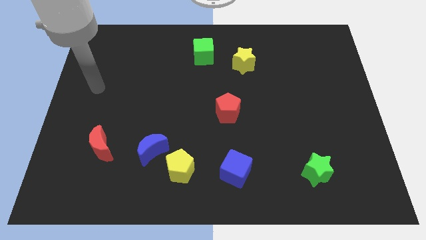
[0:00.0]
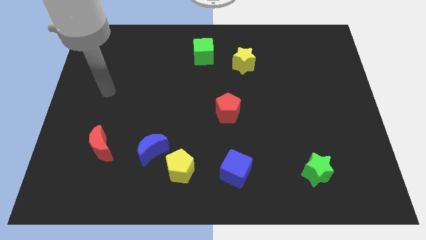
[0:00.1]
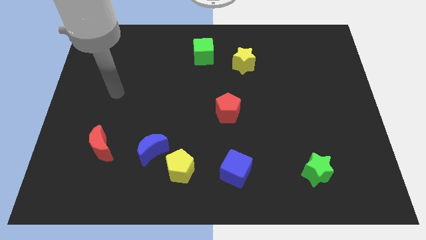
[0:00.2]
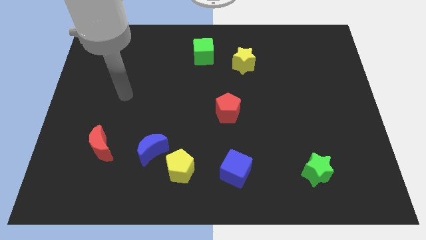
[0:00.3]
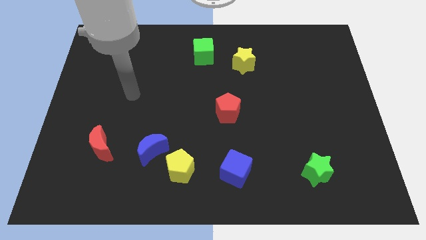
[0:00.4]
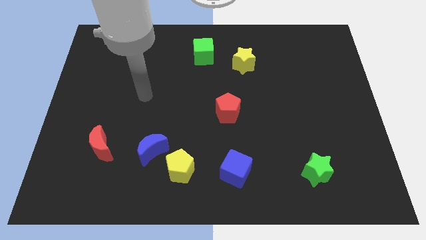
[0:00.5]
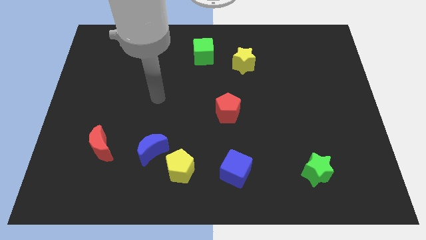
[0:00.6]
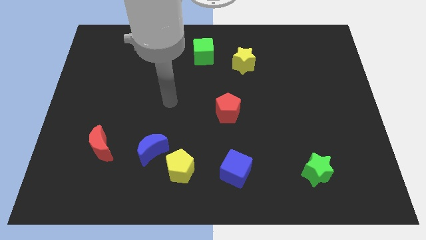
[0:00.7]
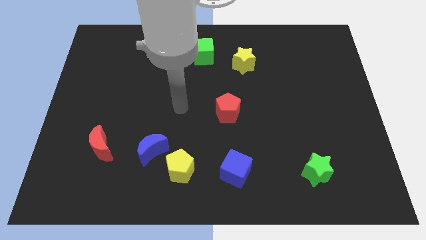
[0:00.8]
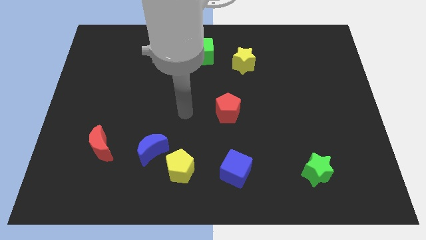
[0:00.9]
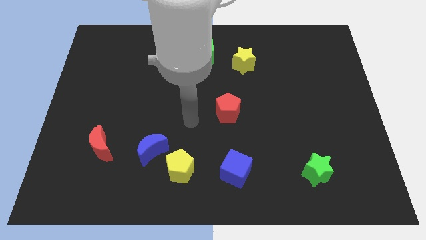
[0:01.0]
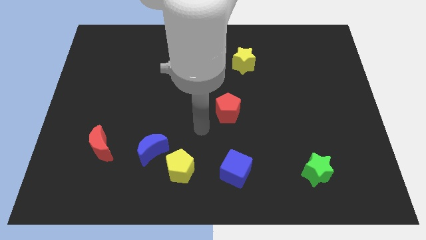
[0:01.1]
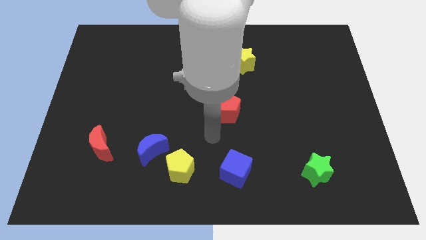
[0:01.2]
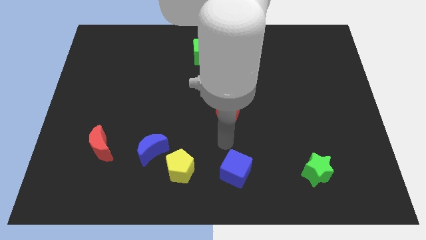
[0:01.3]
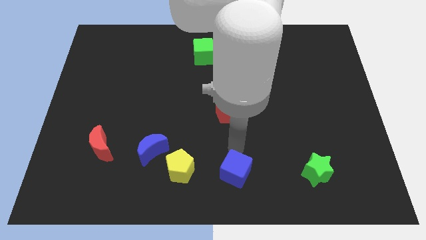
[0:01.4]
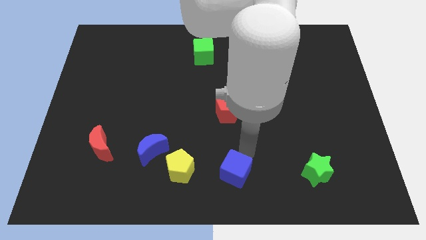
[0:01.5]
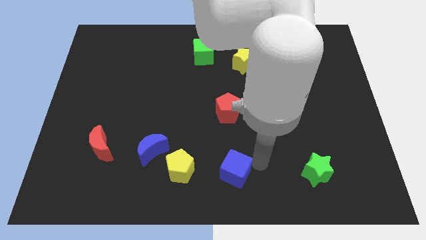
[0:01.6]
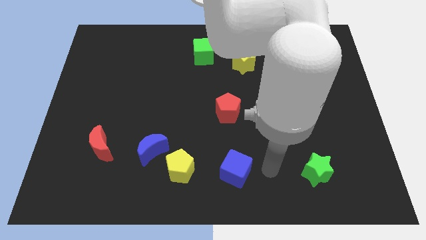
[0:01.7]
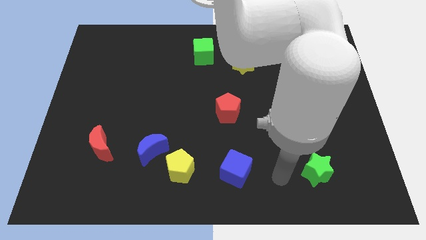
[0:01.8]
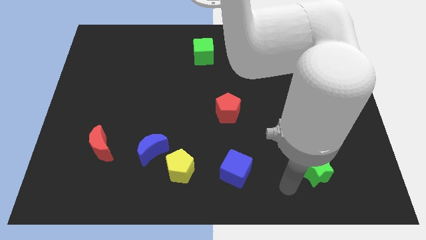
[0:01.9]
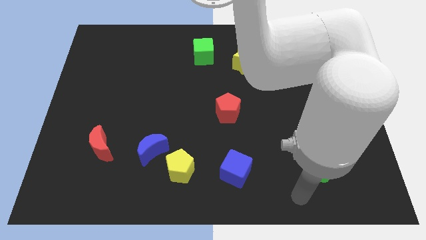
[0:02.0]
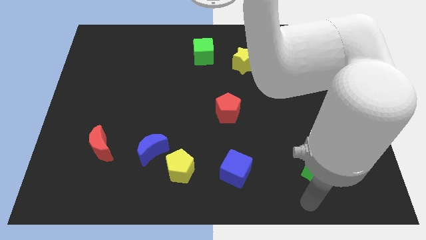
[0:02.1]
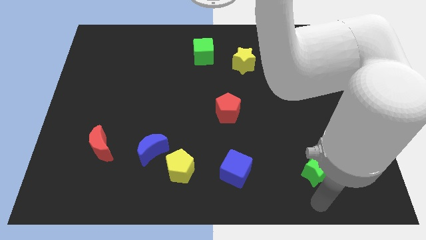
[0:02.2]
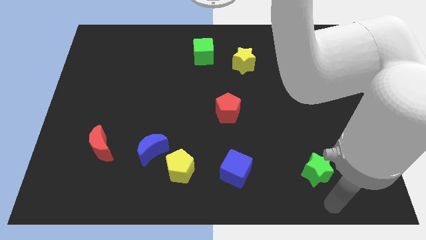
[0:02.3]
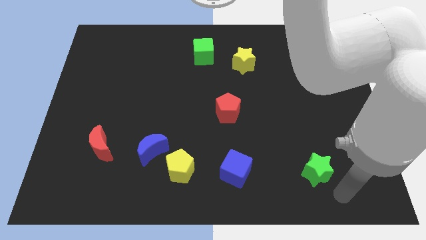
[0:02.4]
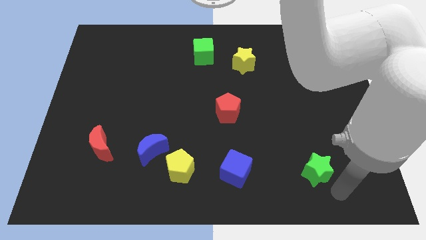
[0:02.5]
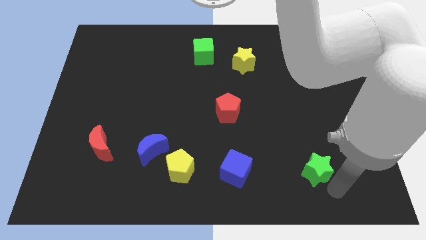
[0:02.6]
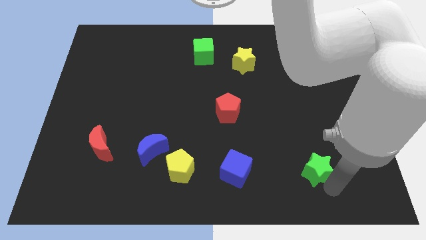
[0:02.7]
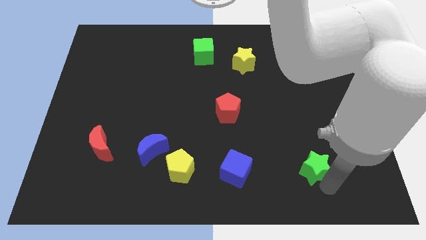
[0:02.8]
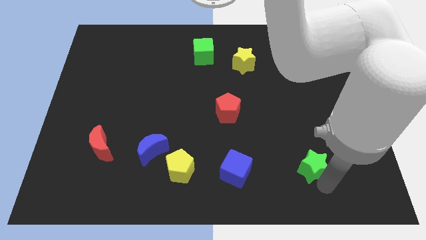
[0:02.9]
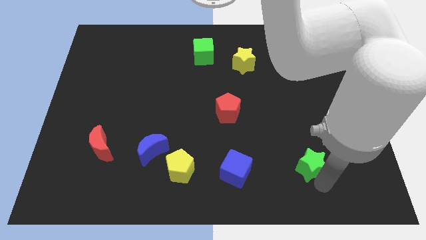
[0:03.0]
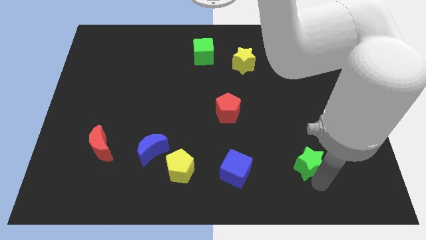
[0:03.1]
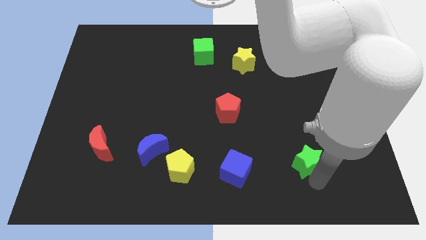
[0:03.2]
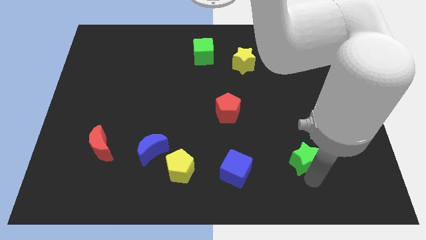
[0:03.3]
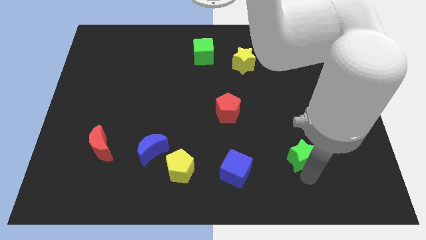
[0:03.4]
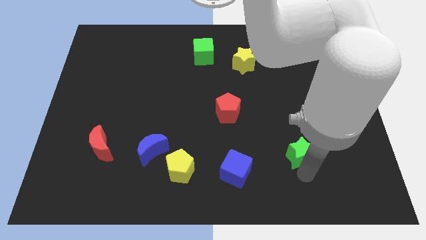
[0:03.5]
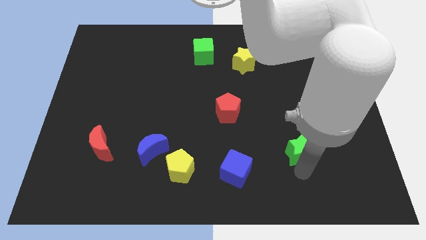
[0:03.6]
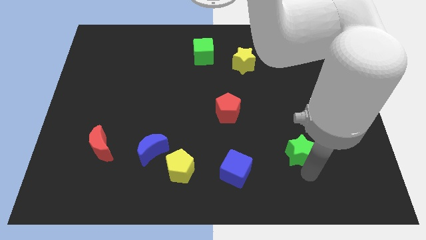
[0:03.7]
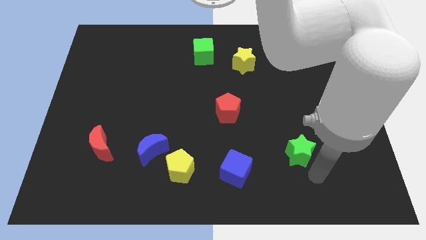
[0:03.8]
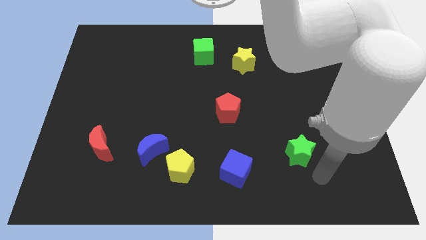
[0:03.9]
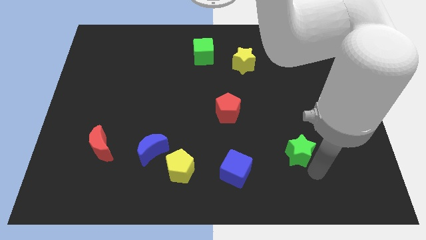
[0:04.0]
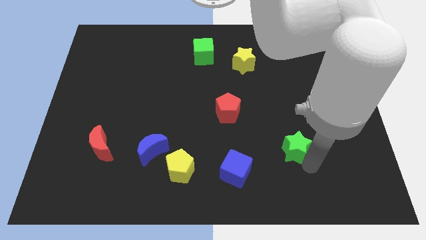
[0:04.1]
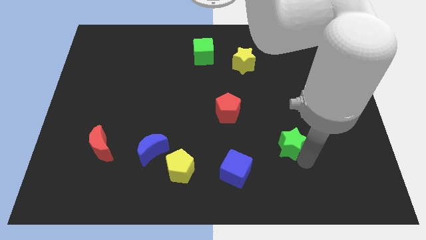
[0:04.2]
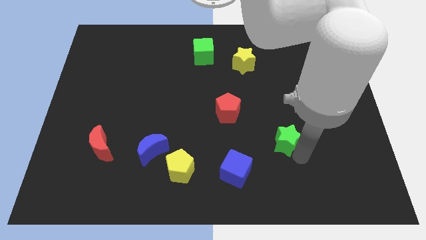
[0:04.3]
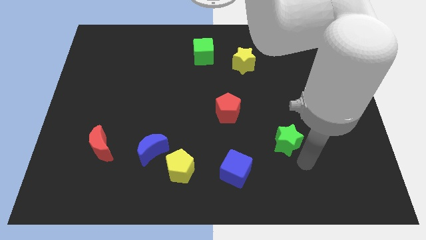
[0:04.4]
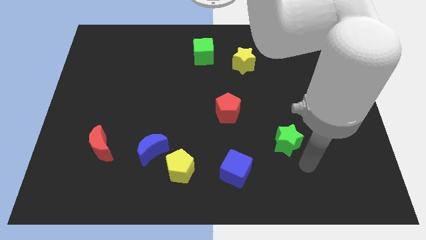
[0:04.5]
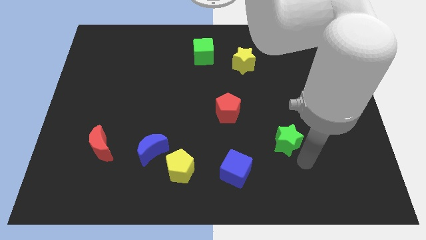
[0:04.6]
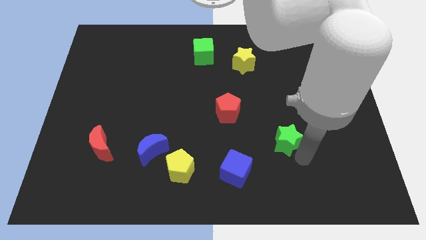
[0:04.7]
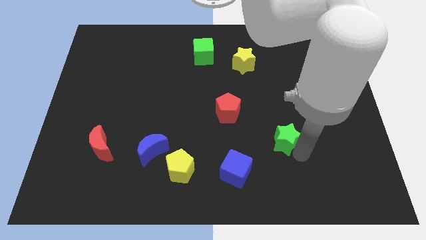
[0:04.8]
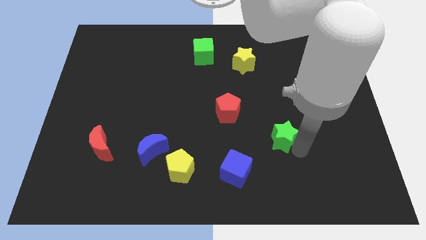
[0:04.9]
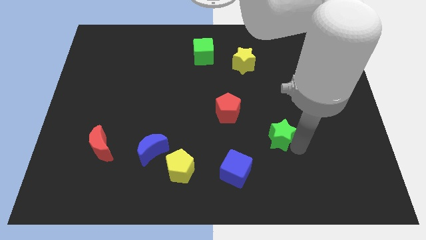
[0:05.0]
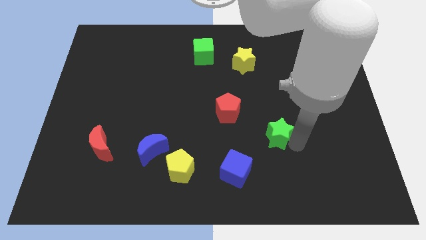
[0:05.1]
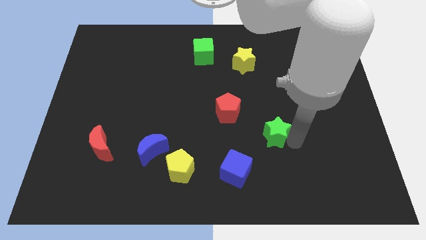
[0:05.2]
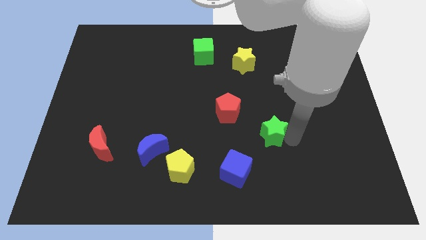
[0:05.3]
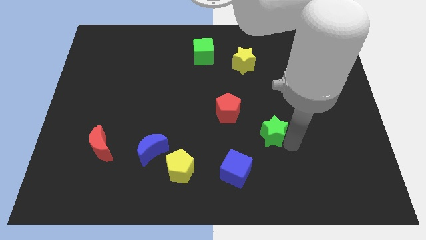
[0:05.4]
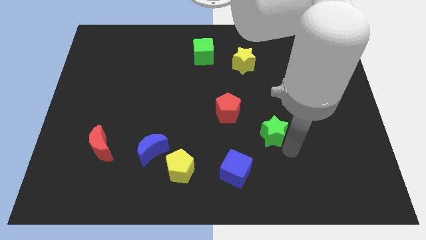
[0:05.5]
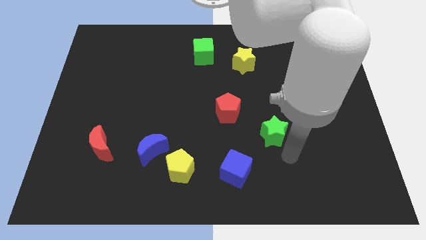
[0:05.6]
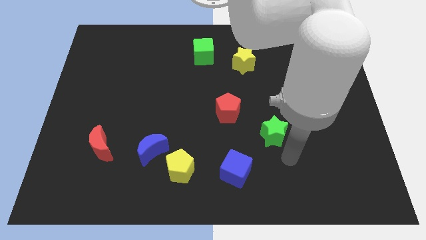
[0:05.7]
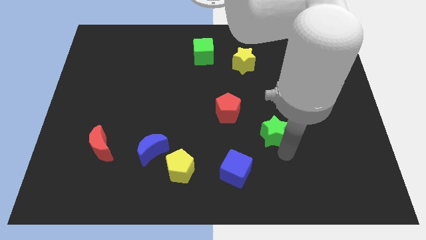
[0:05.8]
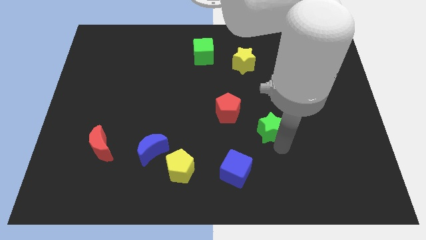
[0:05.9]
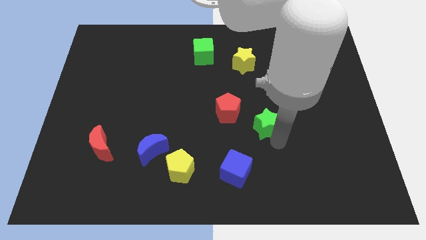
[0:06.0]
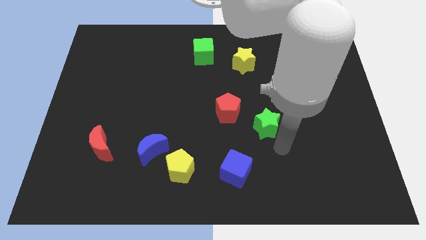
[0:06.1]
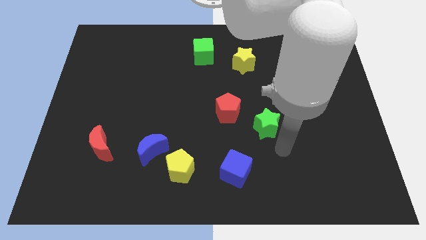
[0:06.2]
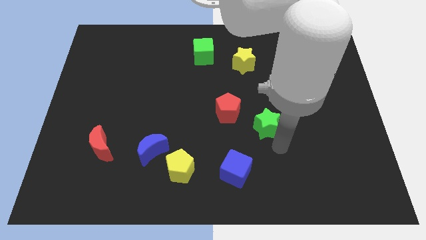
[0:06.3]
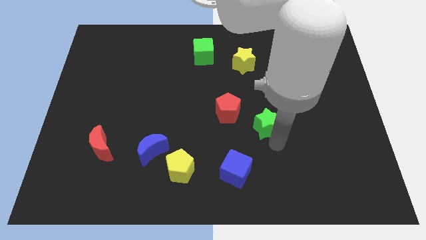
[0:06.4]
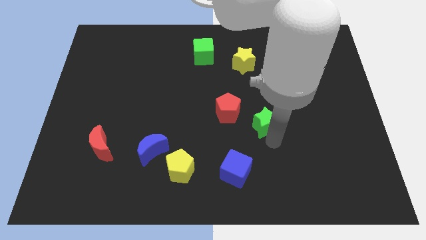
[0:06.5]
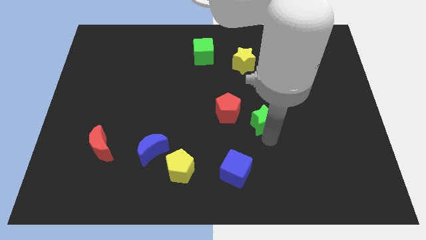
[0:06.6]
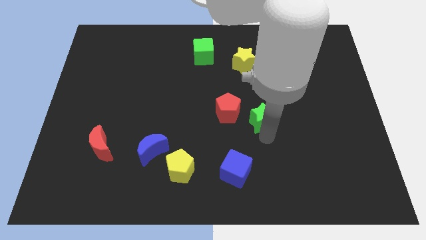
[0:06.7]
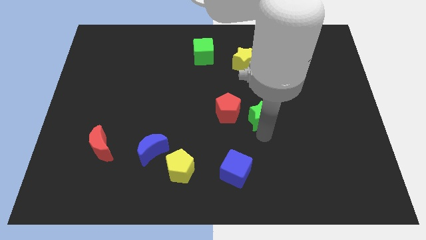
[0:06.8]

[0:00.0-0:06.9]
slide the green star to the center of the board
